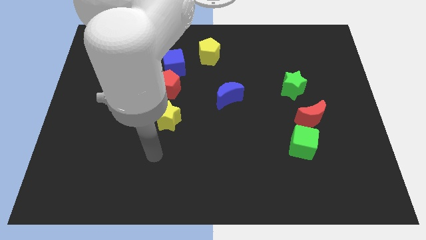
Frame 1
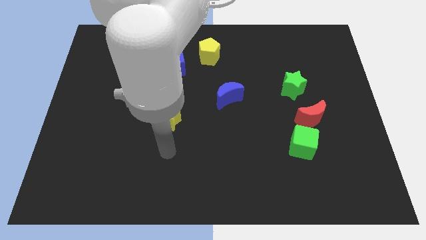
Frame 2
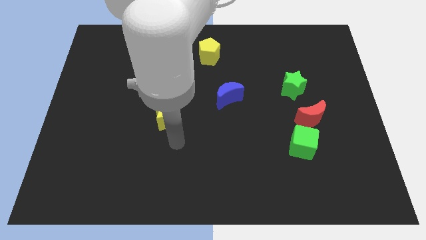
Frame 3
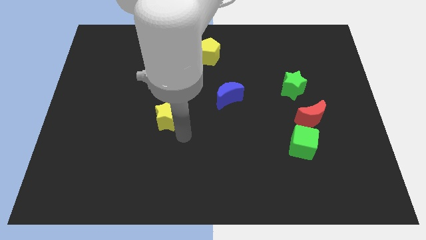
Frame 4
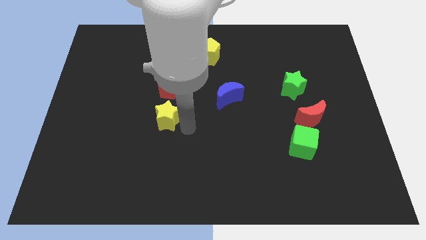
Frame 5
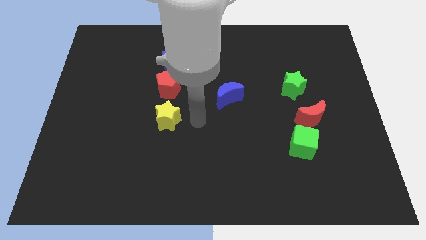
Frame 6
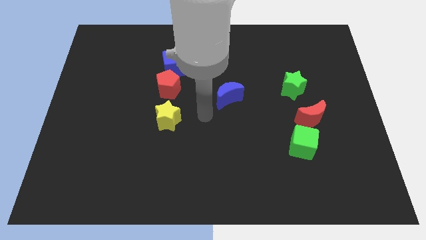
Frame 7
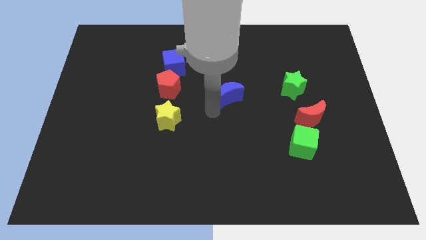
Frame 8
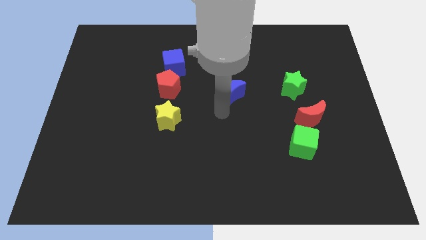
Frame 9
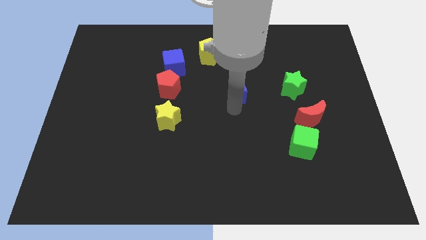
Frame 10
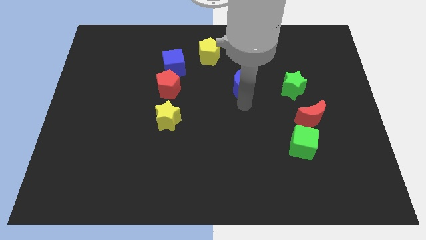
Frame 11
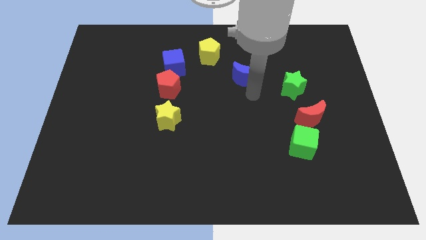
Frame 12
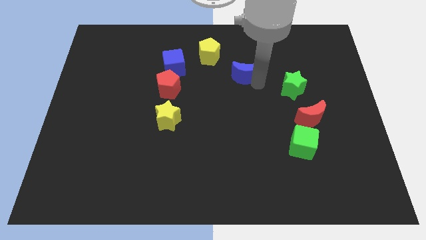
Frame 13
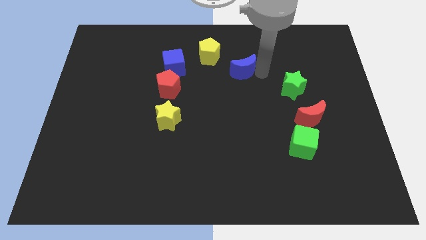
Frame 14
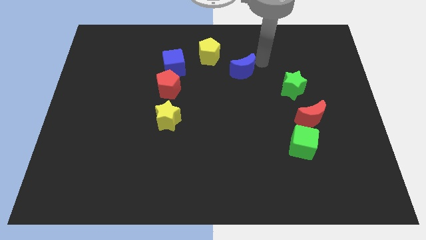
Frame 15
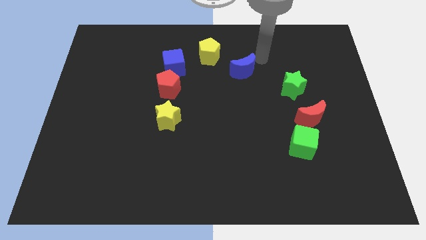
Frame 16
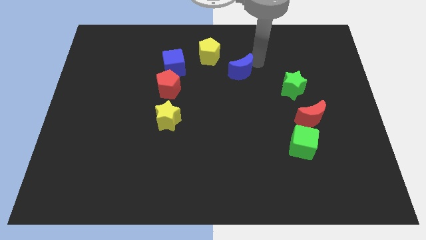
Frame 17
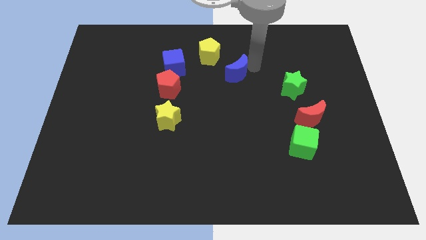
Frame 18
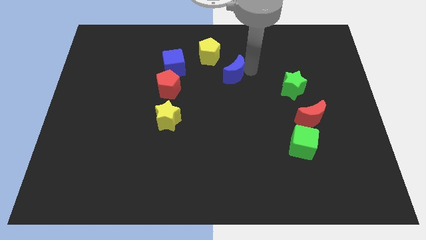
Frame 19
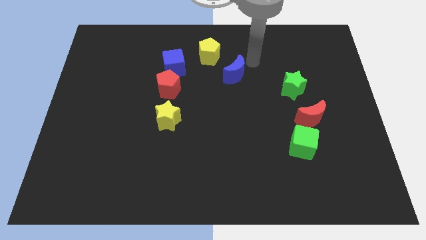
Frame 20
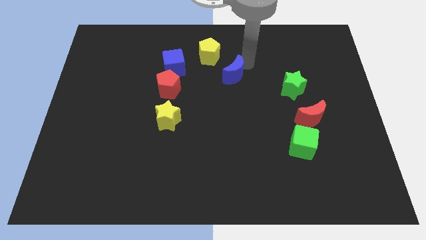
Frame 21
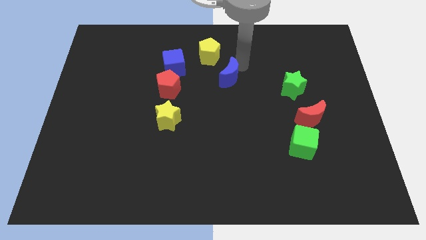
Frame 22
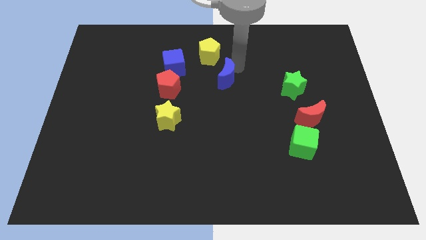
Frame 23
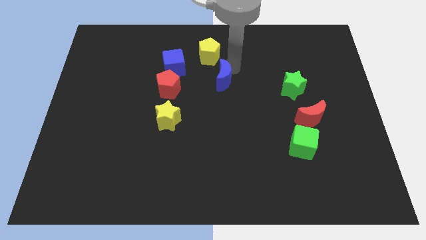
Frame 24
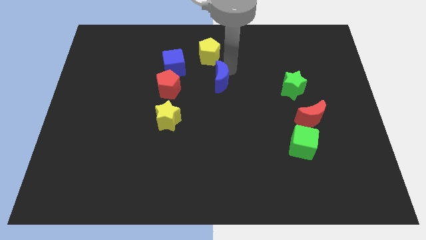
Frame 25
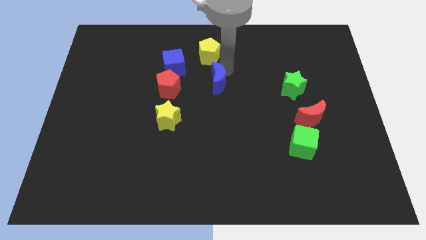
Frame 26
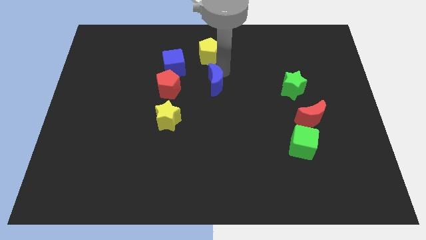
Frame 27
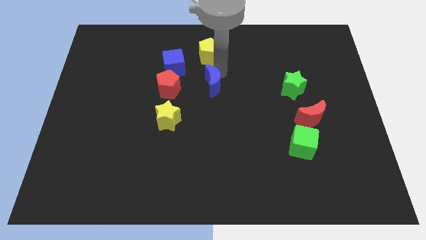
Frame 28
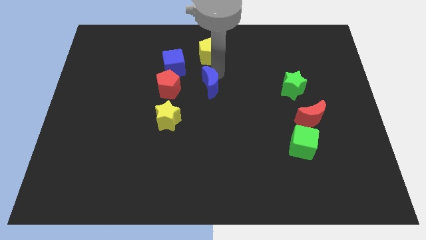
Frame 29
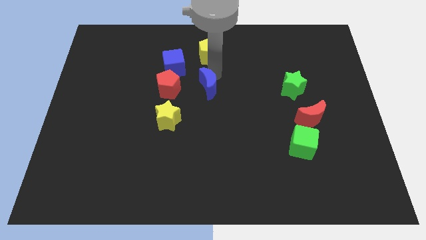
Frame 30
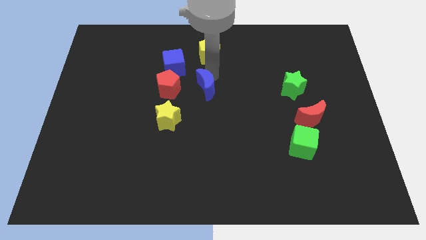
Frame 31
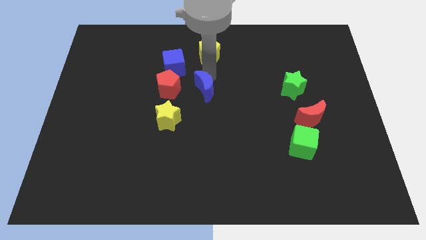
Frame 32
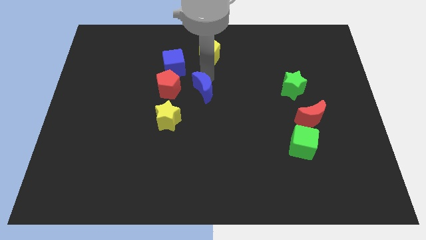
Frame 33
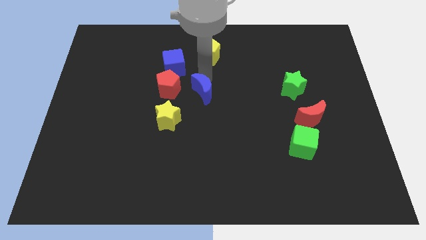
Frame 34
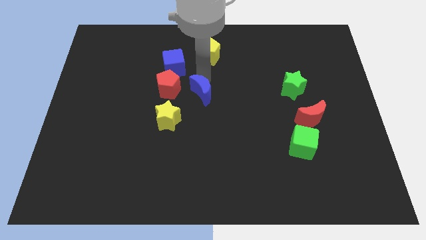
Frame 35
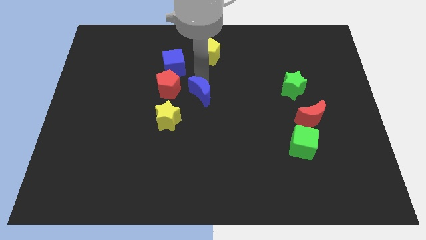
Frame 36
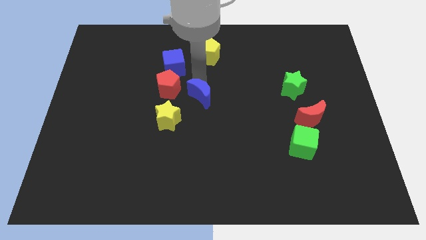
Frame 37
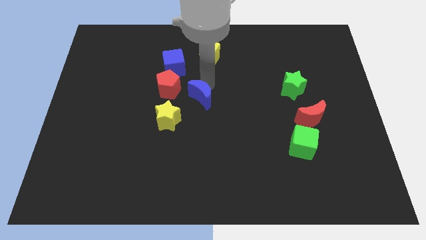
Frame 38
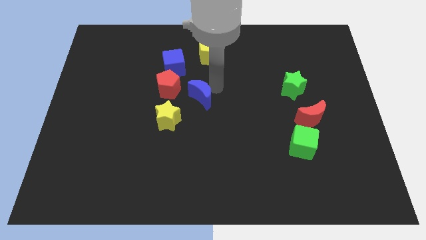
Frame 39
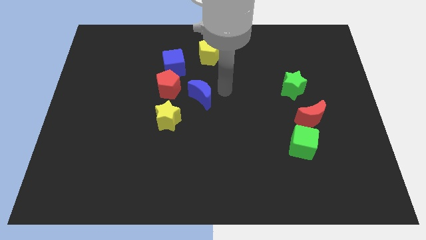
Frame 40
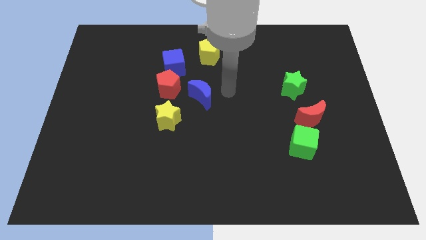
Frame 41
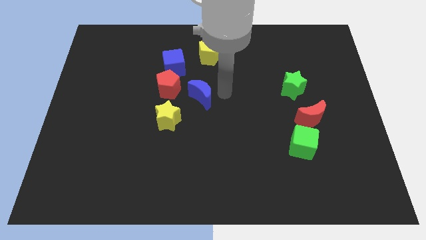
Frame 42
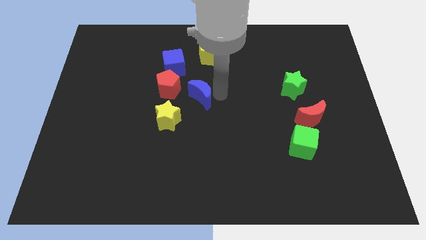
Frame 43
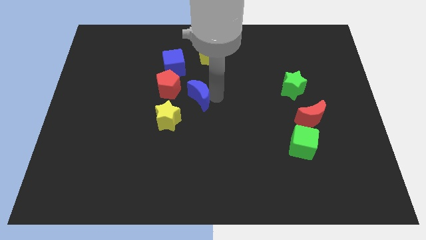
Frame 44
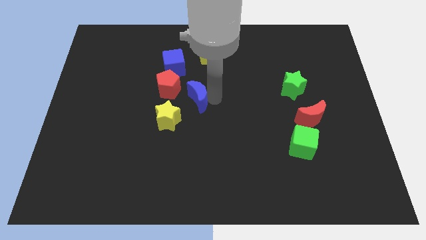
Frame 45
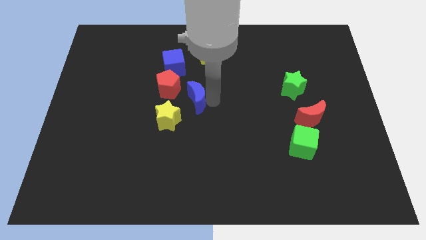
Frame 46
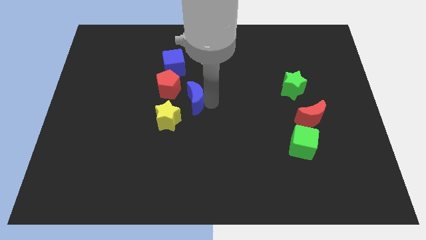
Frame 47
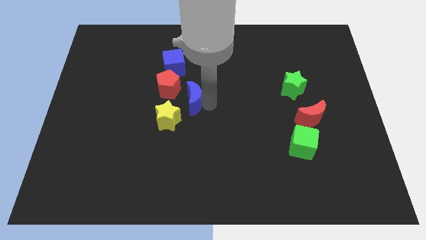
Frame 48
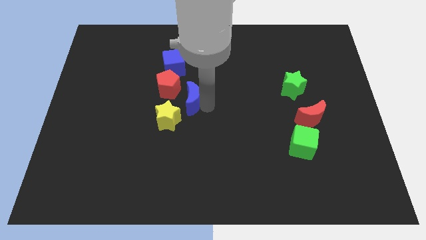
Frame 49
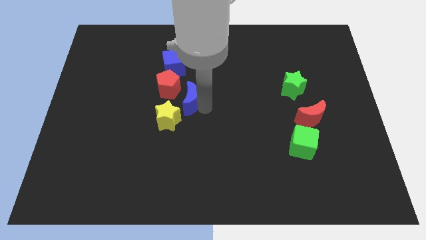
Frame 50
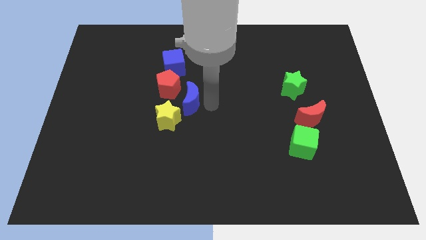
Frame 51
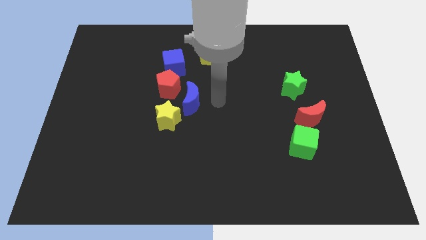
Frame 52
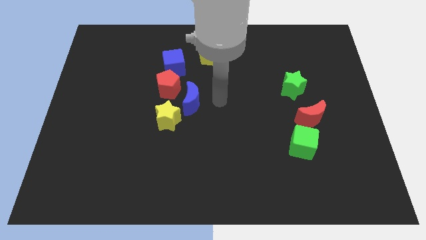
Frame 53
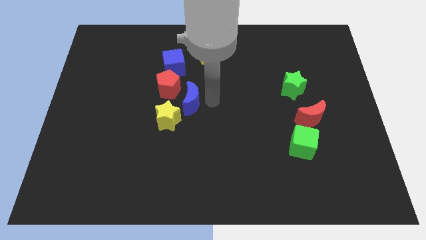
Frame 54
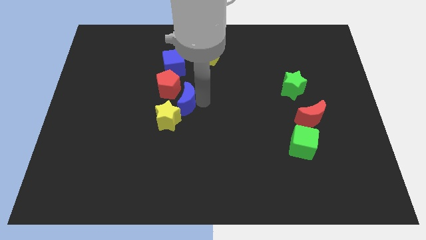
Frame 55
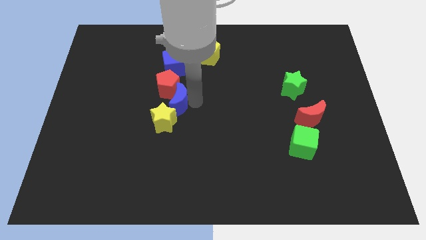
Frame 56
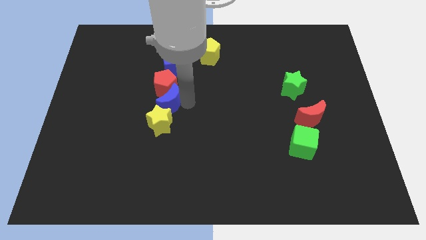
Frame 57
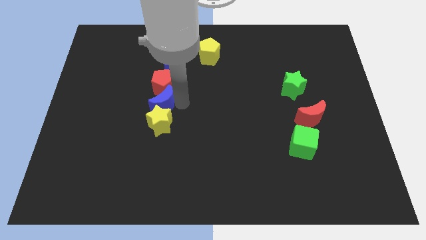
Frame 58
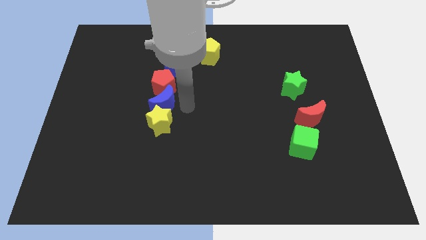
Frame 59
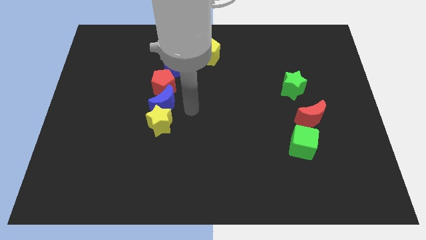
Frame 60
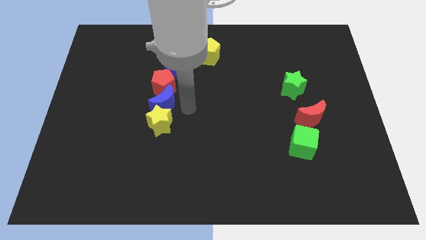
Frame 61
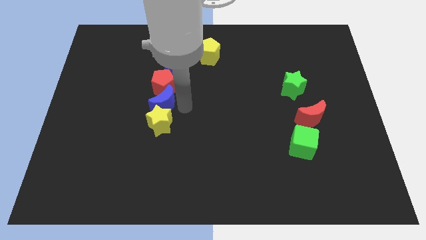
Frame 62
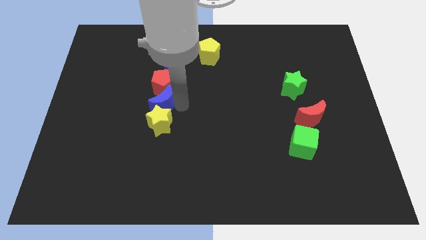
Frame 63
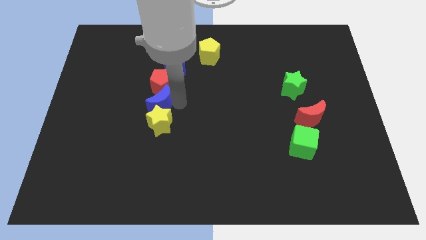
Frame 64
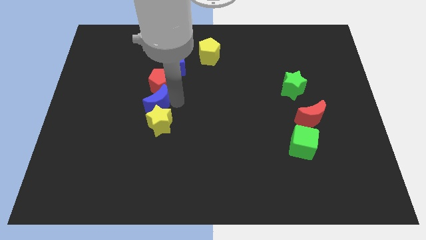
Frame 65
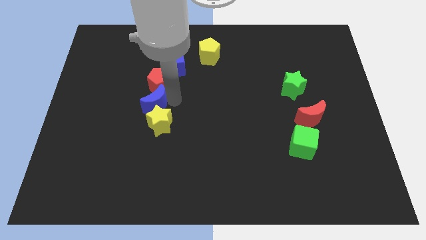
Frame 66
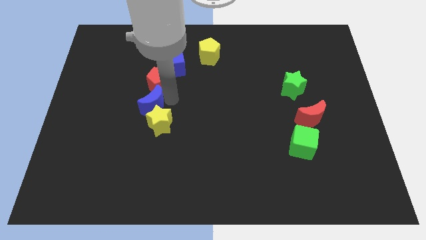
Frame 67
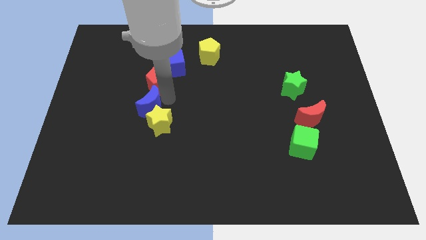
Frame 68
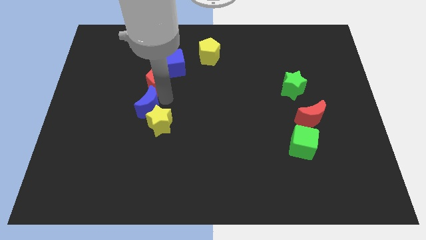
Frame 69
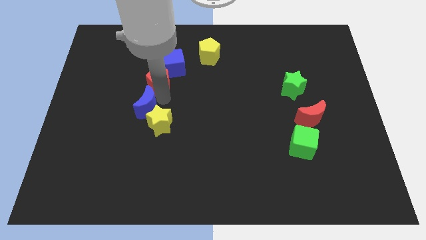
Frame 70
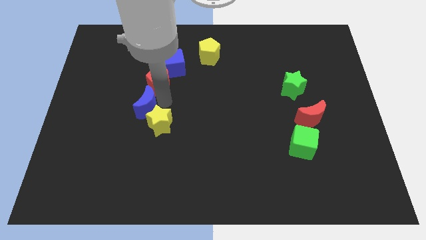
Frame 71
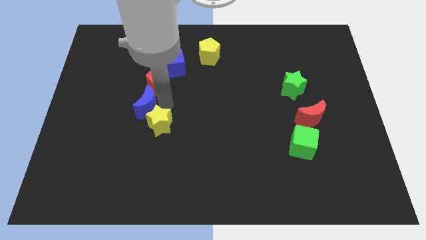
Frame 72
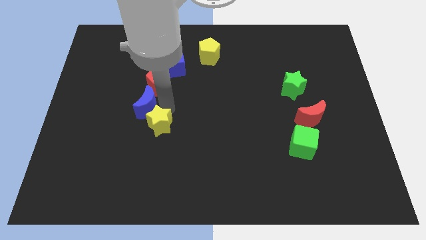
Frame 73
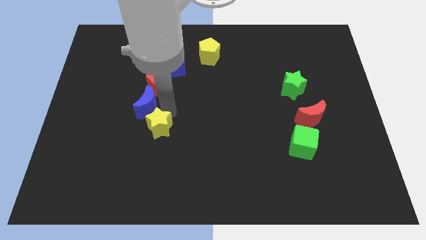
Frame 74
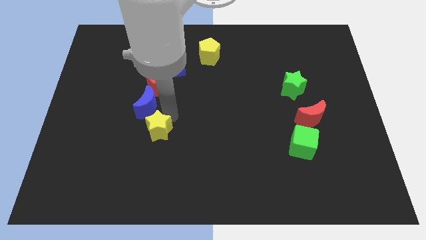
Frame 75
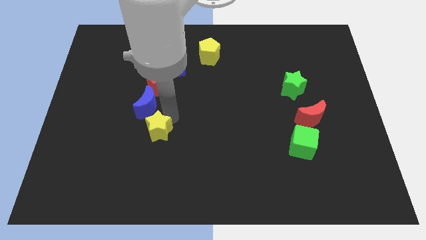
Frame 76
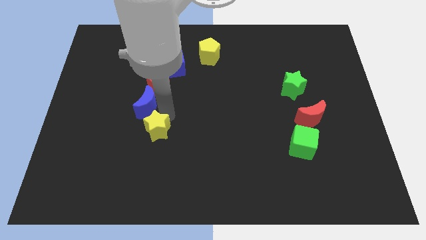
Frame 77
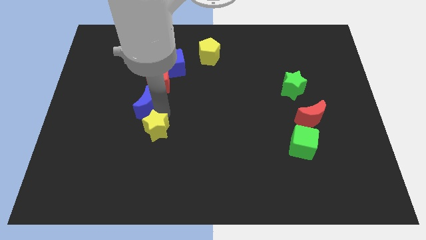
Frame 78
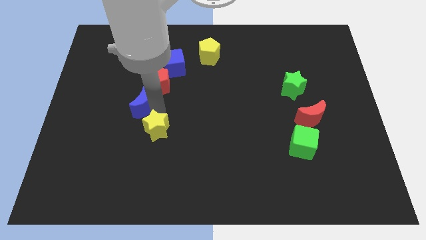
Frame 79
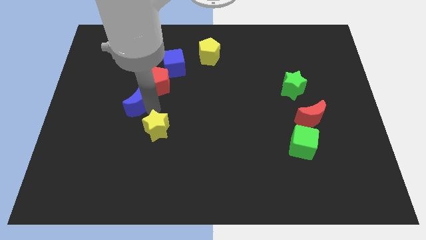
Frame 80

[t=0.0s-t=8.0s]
slide the blue moon to the left
